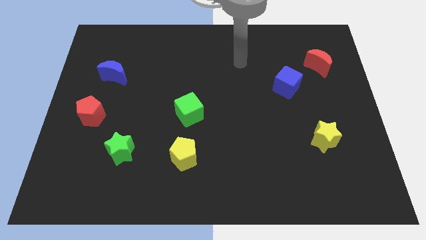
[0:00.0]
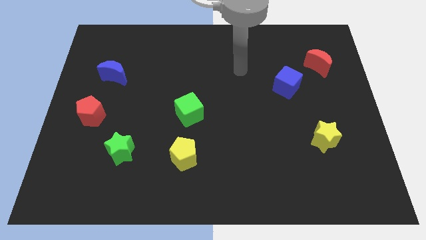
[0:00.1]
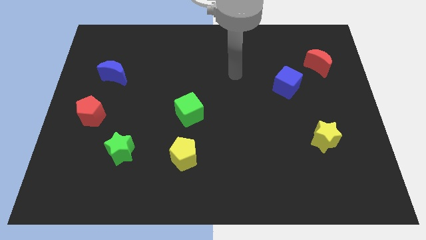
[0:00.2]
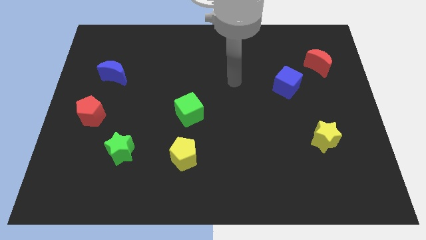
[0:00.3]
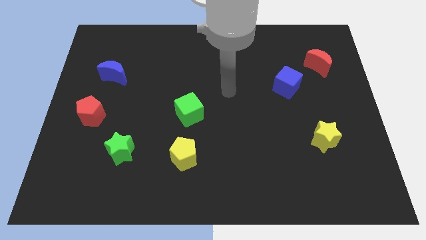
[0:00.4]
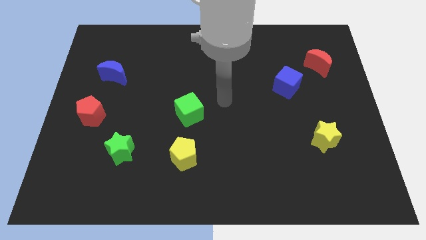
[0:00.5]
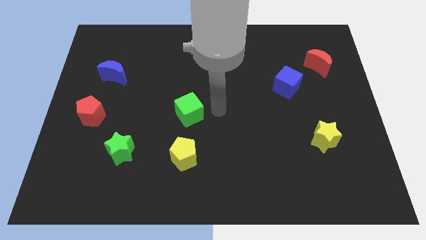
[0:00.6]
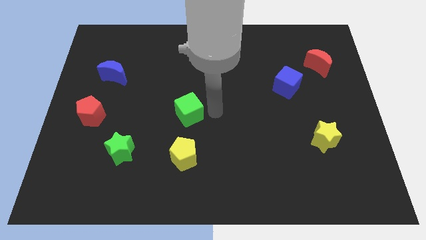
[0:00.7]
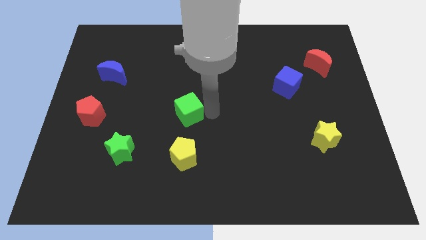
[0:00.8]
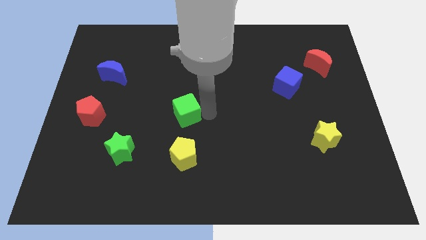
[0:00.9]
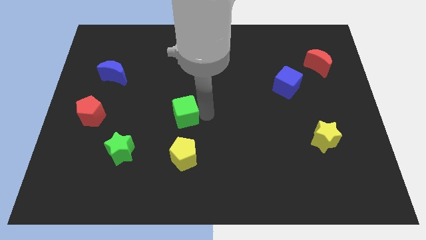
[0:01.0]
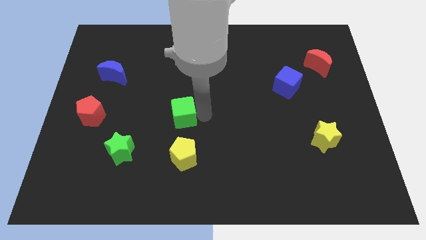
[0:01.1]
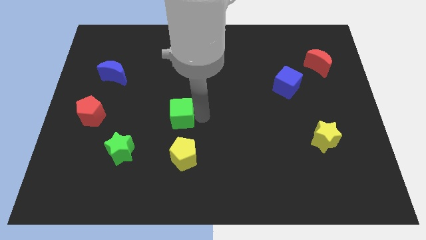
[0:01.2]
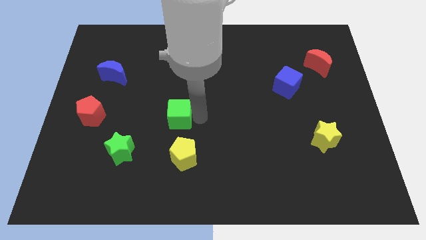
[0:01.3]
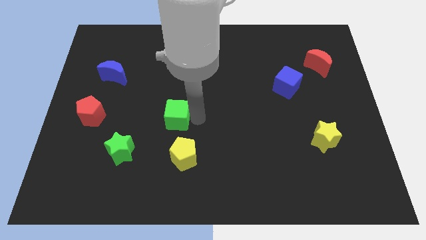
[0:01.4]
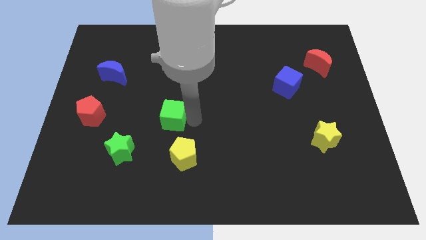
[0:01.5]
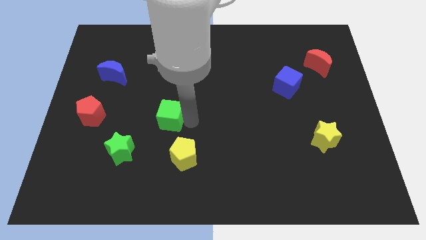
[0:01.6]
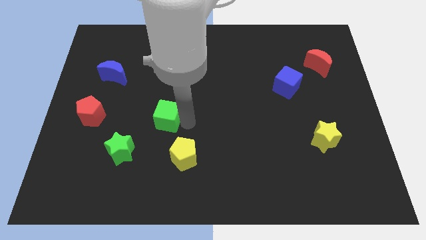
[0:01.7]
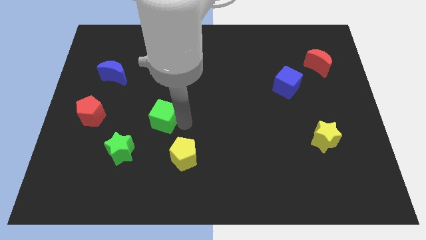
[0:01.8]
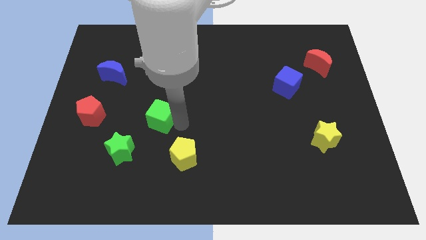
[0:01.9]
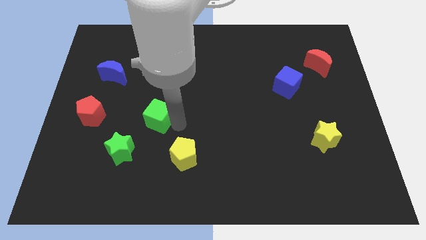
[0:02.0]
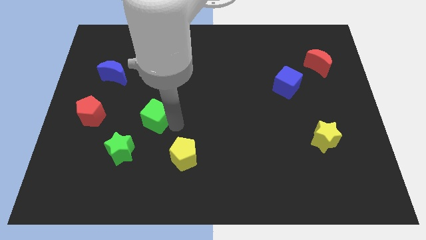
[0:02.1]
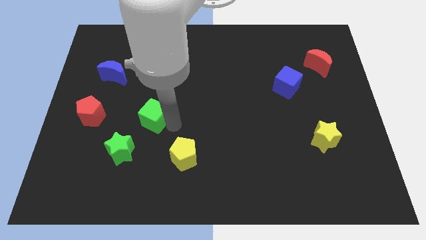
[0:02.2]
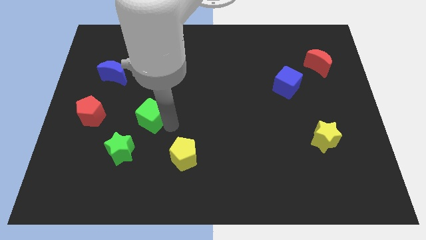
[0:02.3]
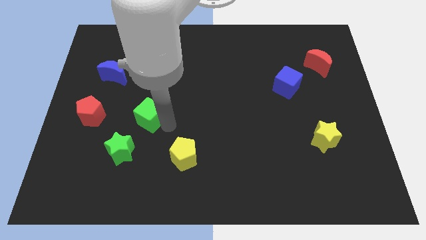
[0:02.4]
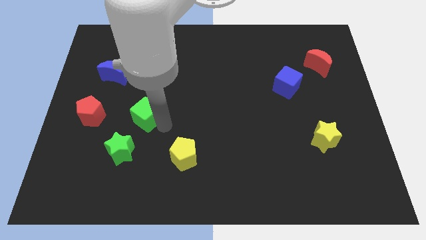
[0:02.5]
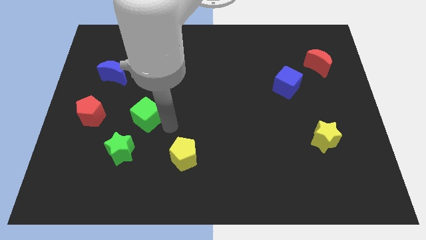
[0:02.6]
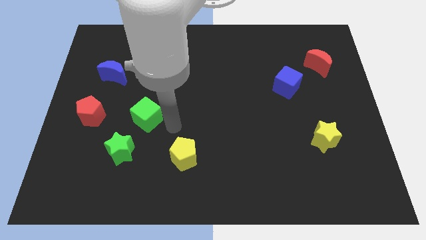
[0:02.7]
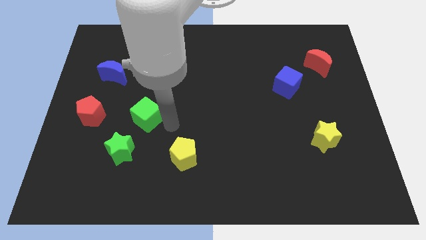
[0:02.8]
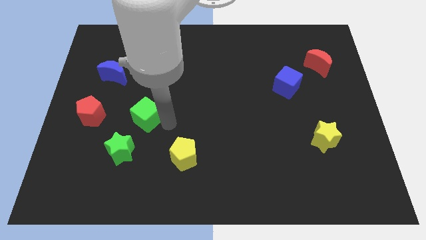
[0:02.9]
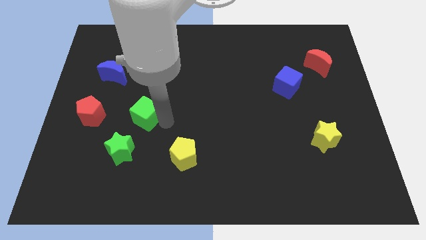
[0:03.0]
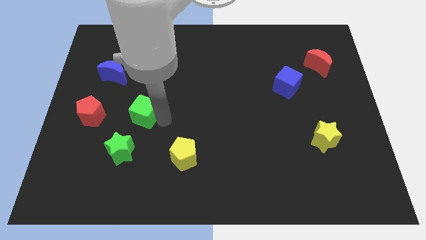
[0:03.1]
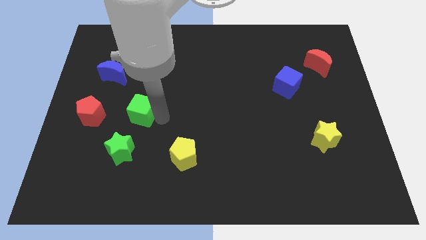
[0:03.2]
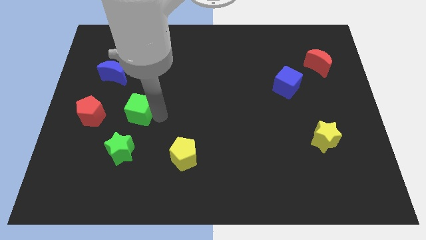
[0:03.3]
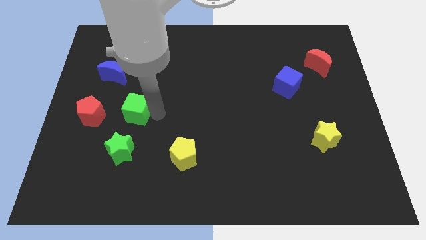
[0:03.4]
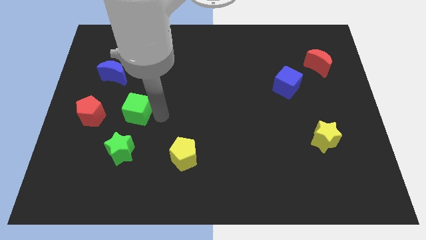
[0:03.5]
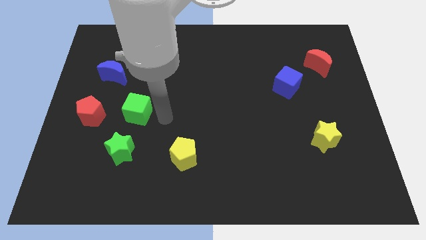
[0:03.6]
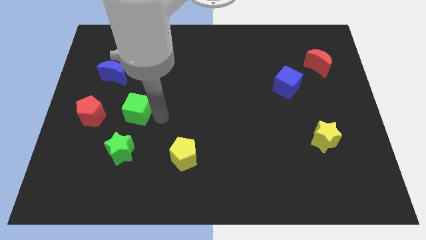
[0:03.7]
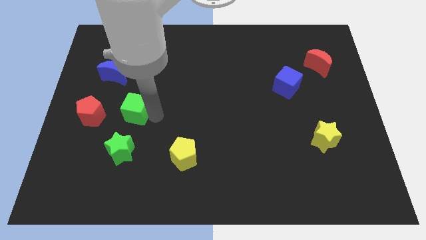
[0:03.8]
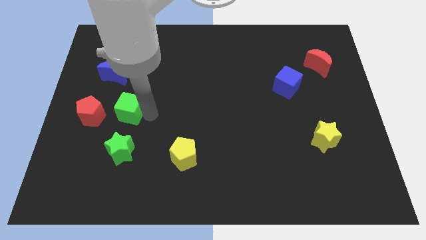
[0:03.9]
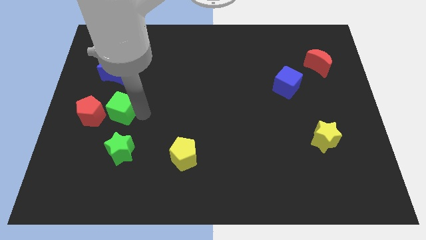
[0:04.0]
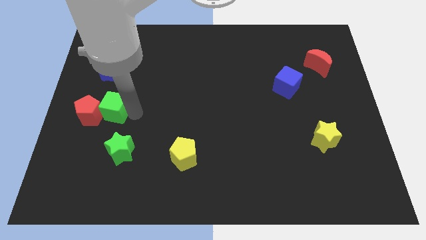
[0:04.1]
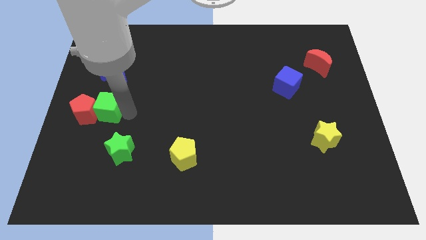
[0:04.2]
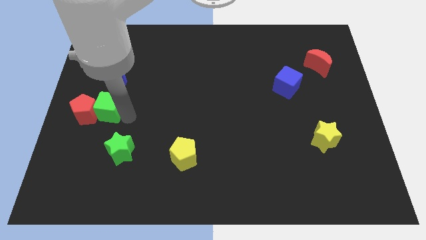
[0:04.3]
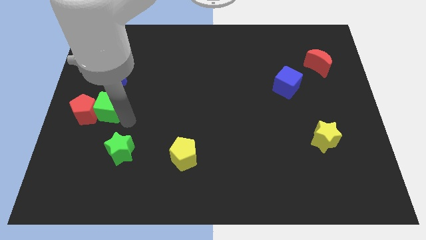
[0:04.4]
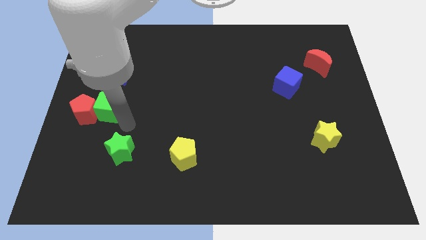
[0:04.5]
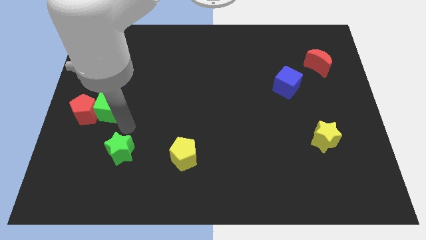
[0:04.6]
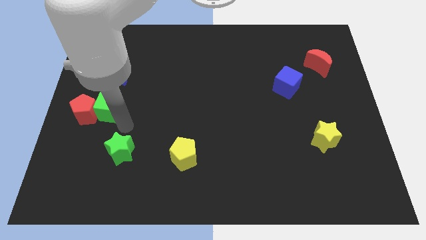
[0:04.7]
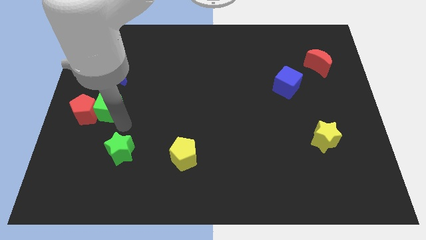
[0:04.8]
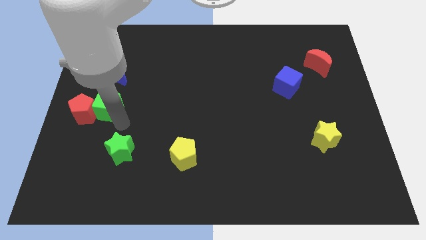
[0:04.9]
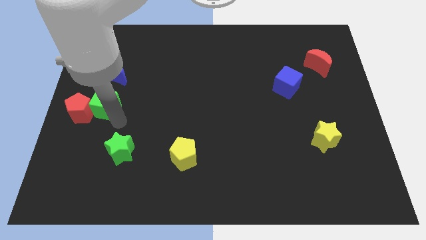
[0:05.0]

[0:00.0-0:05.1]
push the green cube to the center left

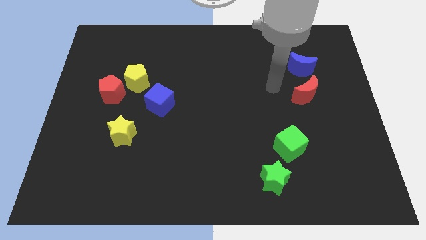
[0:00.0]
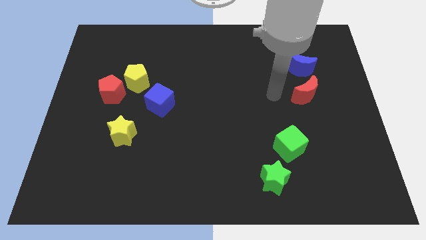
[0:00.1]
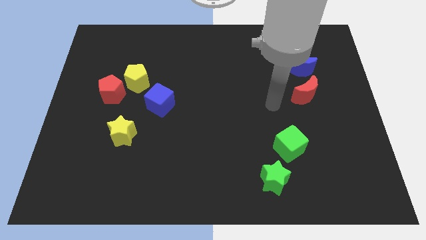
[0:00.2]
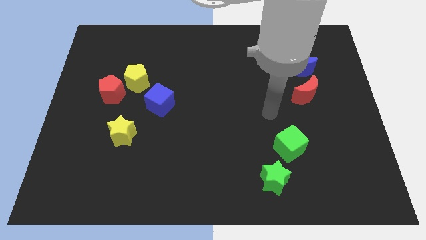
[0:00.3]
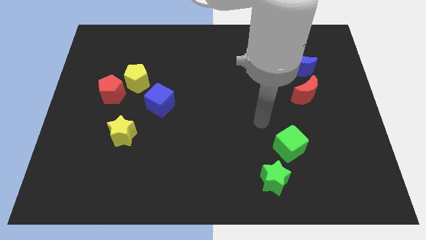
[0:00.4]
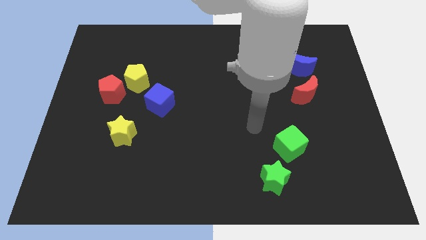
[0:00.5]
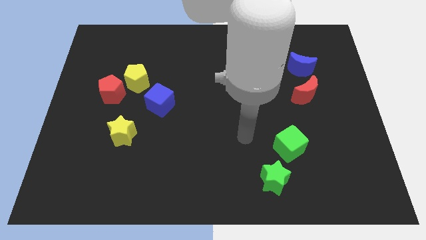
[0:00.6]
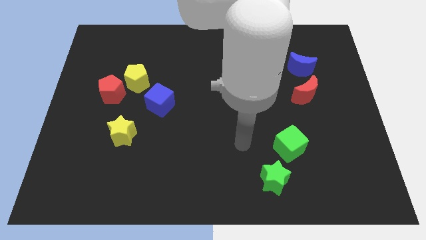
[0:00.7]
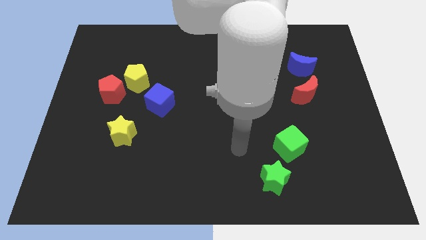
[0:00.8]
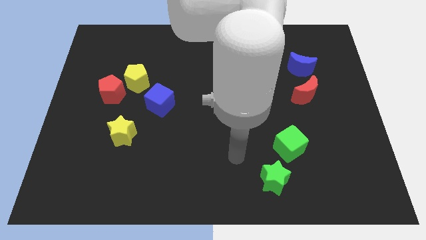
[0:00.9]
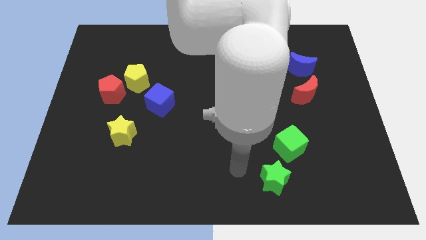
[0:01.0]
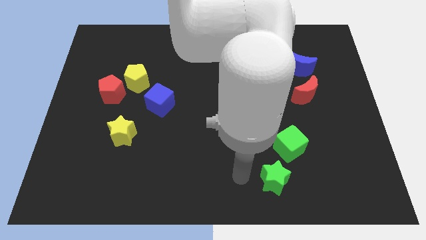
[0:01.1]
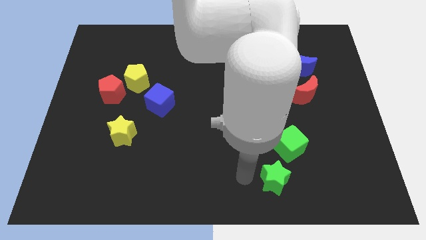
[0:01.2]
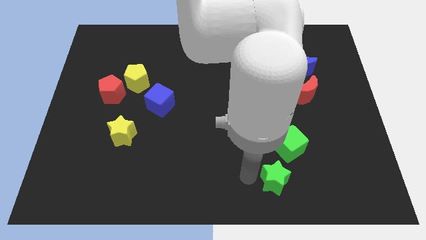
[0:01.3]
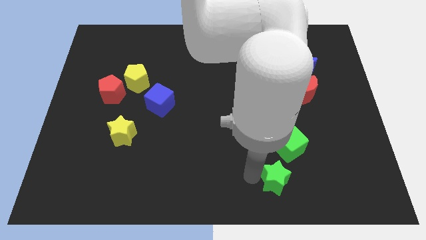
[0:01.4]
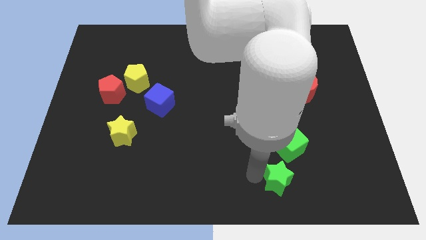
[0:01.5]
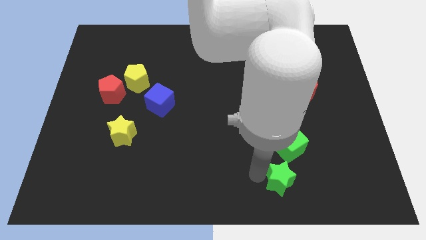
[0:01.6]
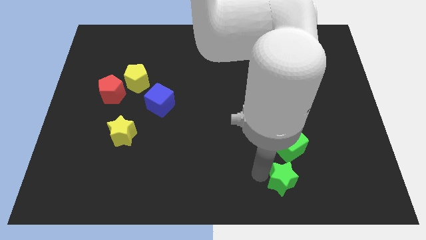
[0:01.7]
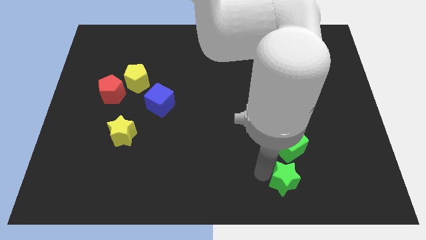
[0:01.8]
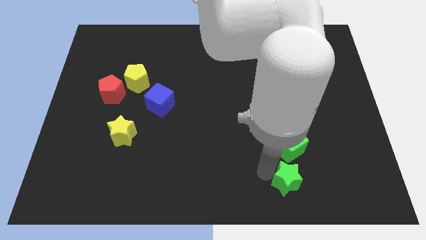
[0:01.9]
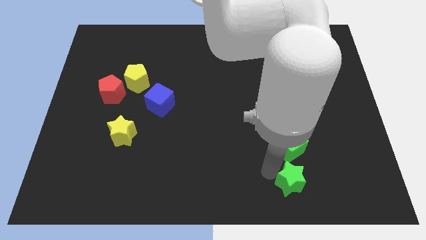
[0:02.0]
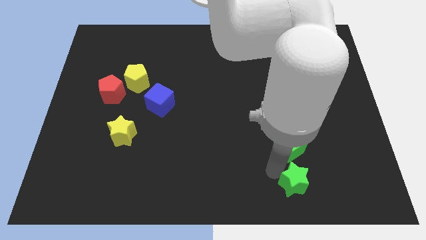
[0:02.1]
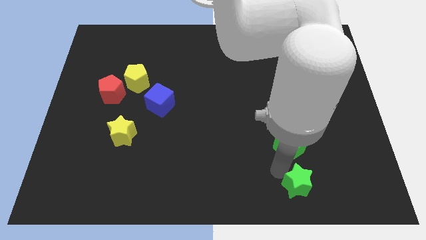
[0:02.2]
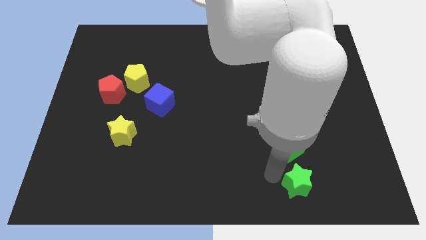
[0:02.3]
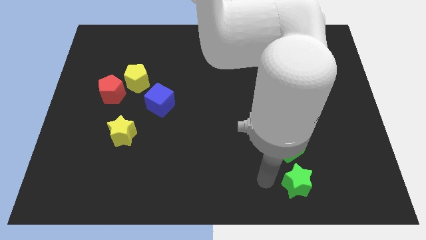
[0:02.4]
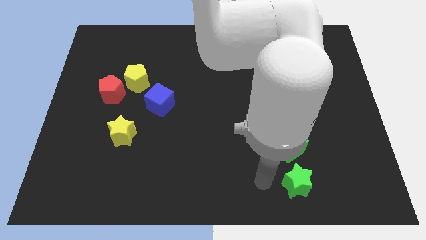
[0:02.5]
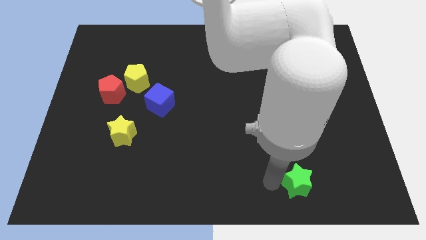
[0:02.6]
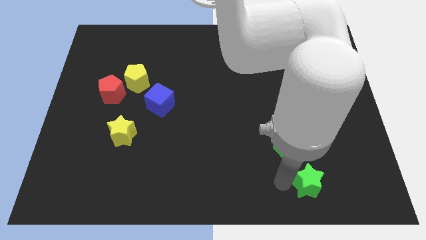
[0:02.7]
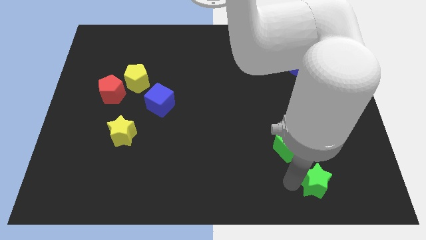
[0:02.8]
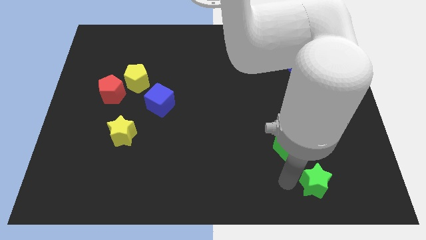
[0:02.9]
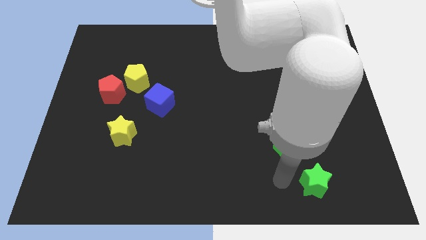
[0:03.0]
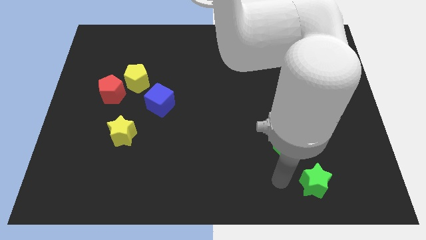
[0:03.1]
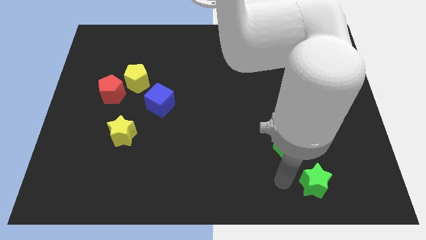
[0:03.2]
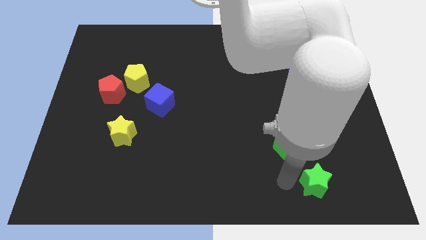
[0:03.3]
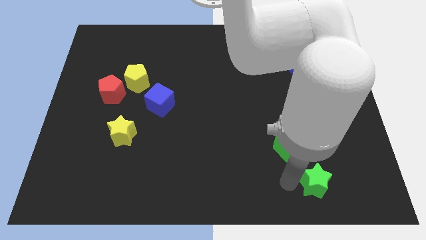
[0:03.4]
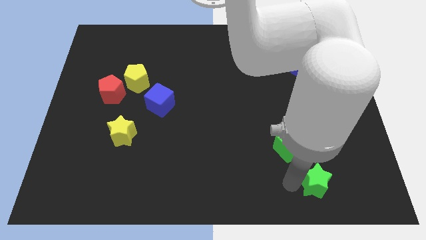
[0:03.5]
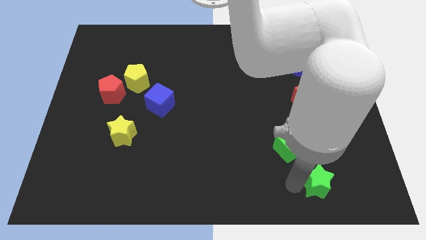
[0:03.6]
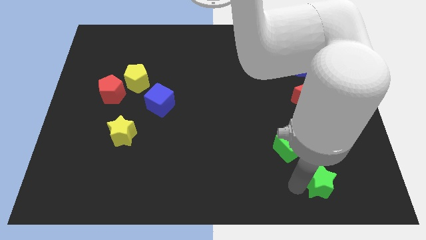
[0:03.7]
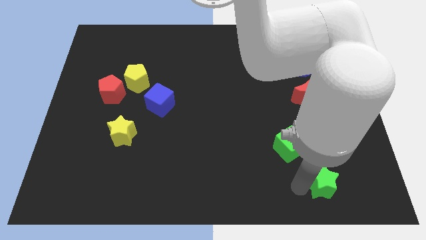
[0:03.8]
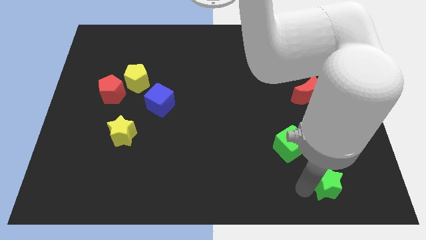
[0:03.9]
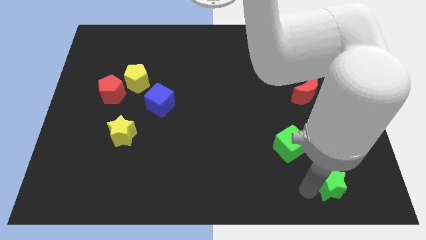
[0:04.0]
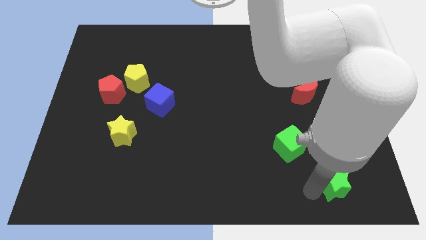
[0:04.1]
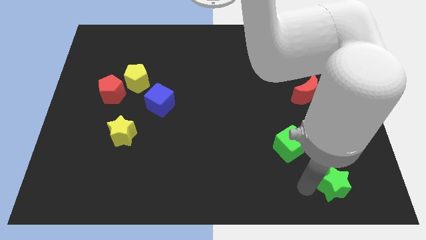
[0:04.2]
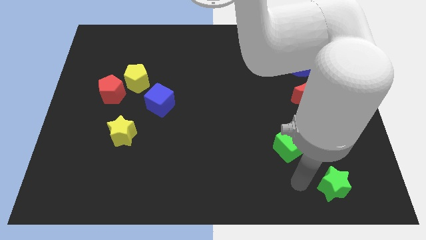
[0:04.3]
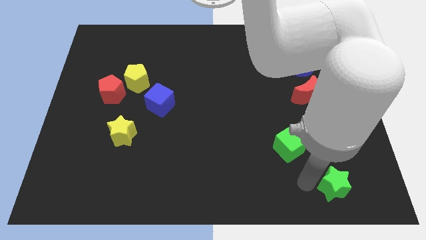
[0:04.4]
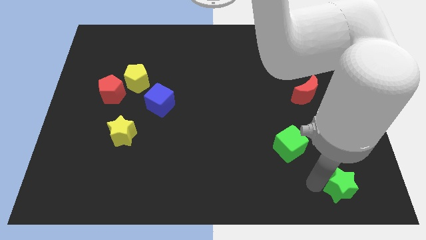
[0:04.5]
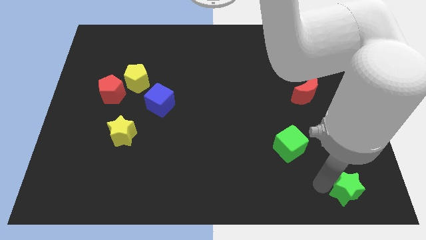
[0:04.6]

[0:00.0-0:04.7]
push the green star to the bottom right
